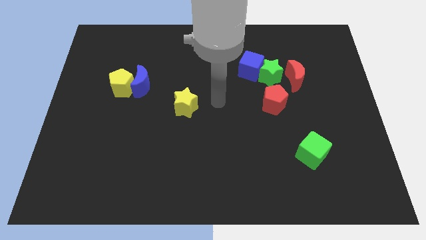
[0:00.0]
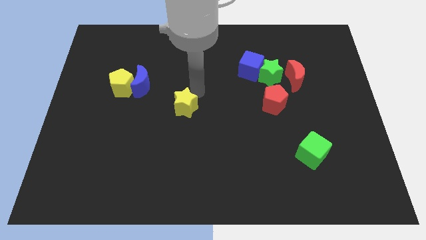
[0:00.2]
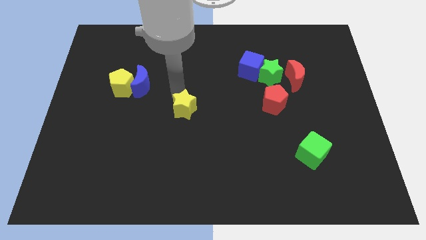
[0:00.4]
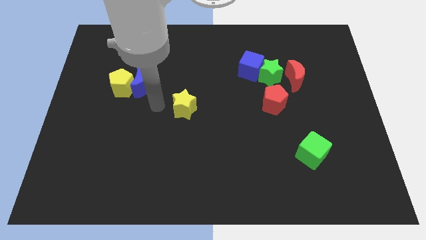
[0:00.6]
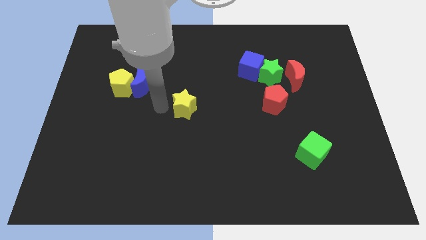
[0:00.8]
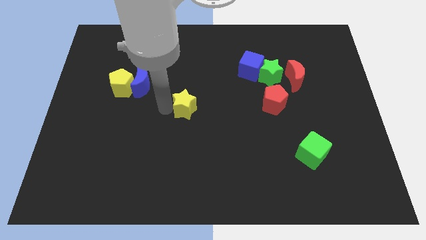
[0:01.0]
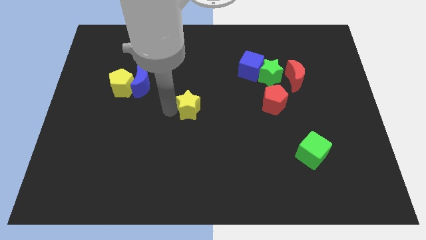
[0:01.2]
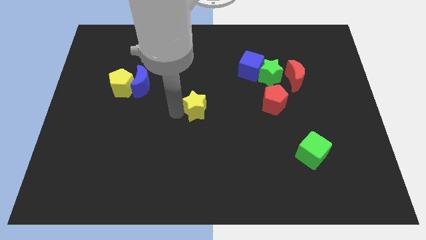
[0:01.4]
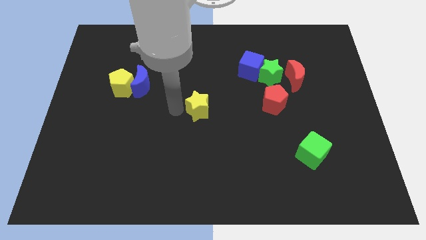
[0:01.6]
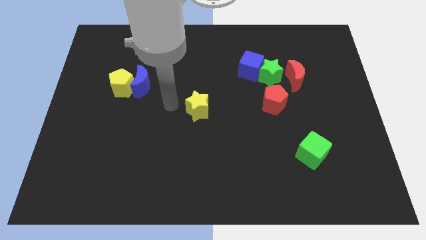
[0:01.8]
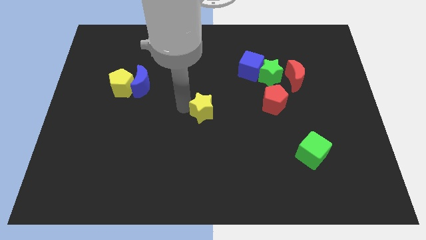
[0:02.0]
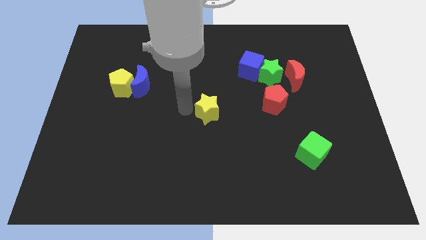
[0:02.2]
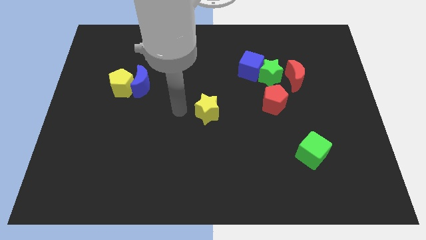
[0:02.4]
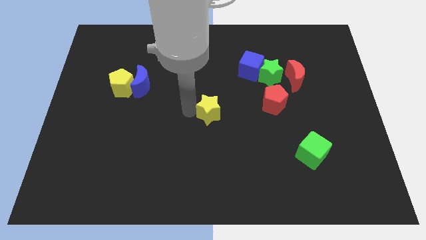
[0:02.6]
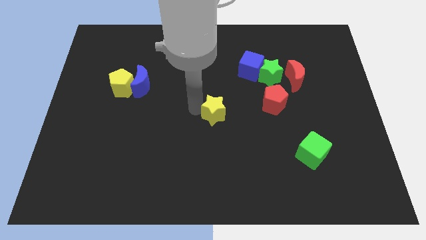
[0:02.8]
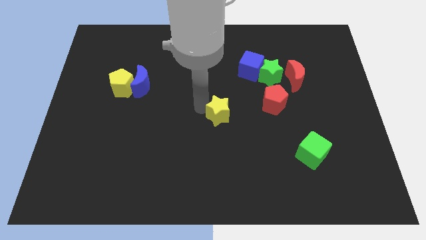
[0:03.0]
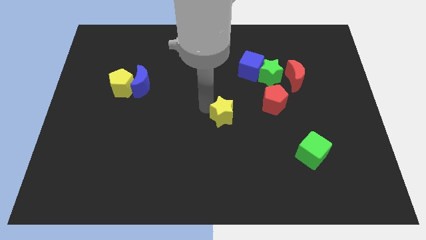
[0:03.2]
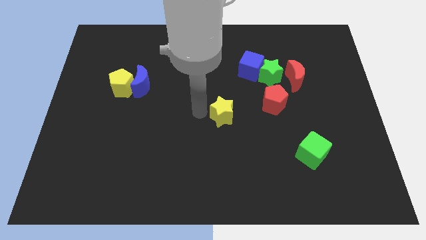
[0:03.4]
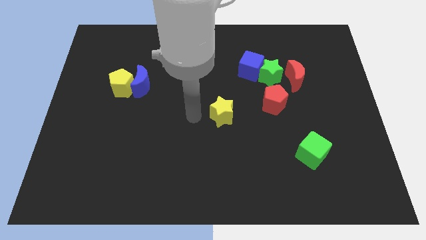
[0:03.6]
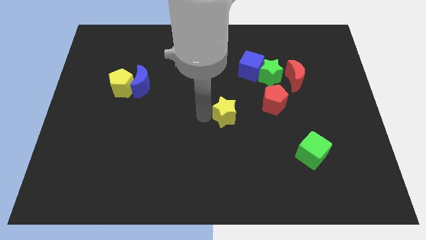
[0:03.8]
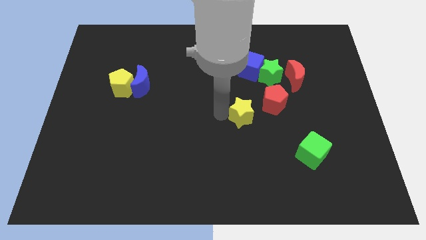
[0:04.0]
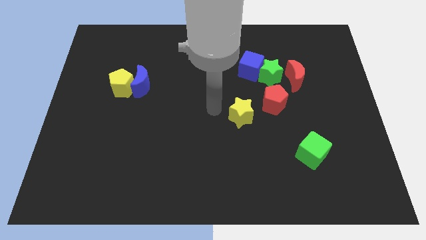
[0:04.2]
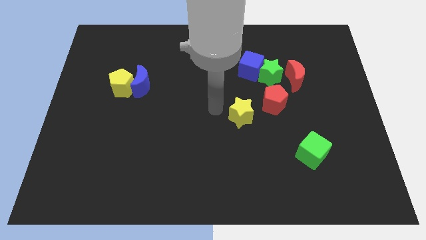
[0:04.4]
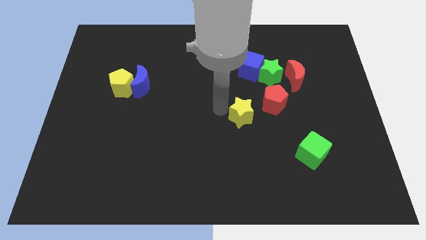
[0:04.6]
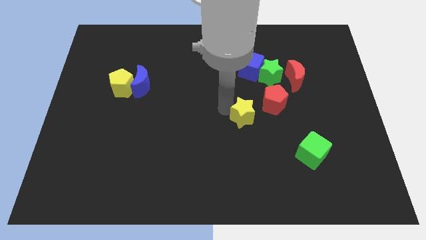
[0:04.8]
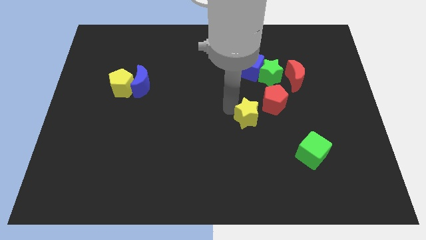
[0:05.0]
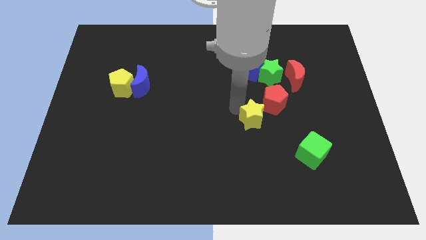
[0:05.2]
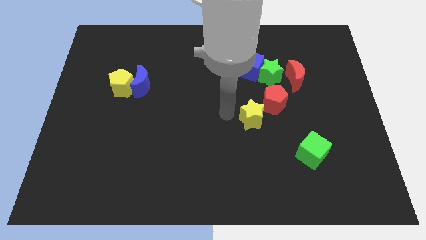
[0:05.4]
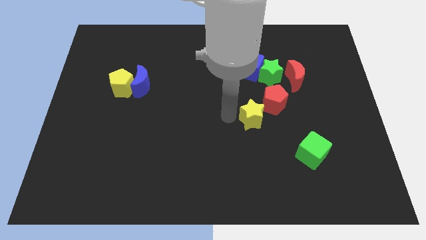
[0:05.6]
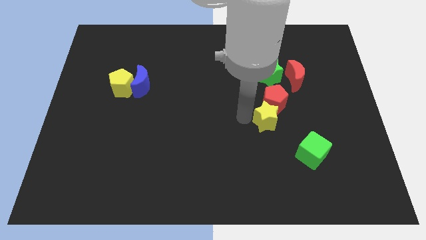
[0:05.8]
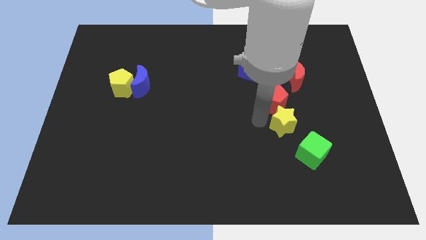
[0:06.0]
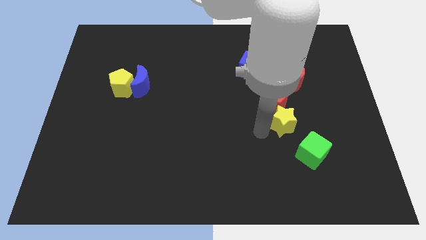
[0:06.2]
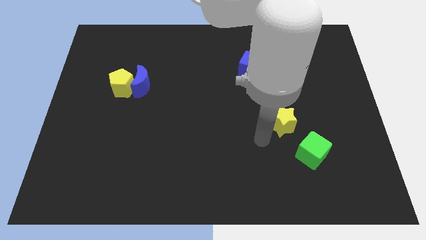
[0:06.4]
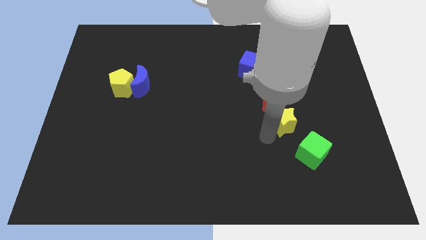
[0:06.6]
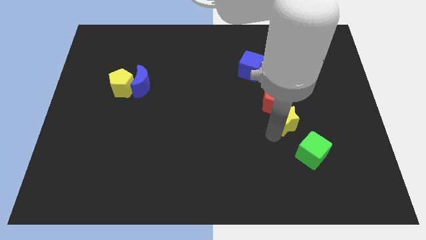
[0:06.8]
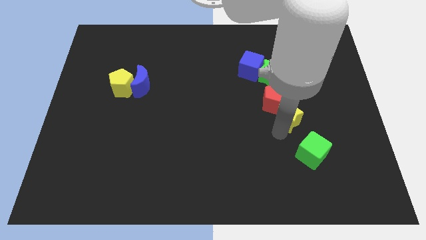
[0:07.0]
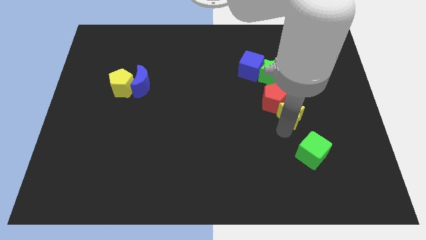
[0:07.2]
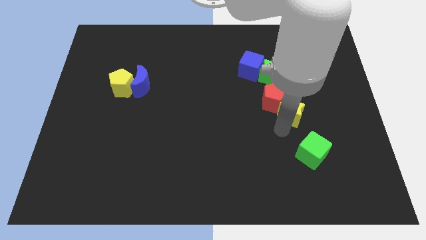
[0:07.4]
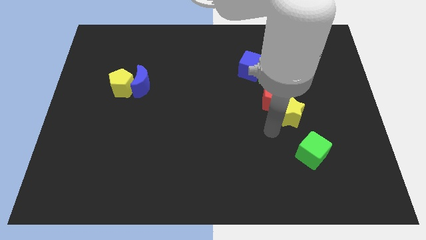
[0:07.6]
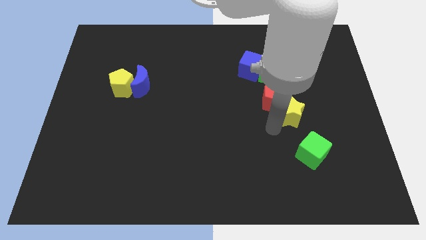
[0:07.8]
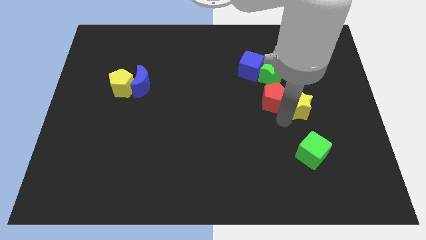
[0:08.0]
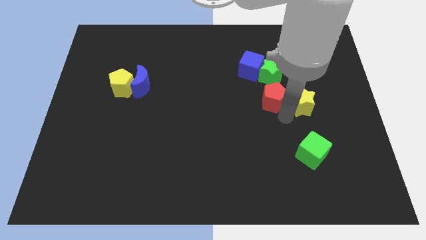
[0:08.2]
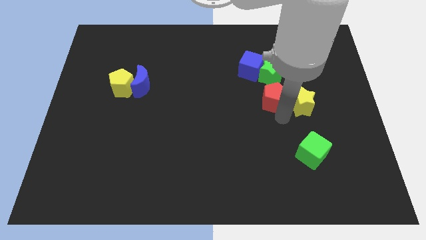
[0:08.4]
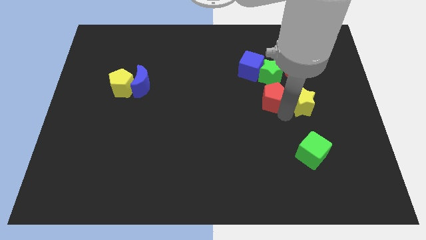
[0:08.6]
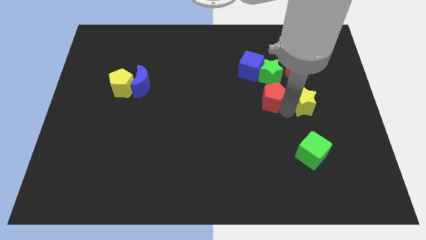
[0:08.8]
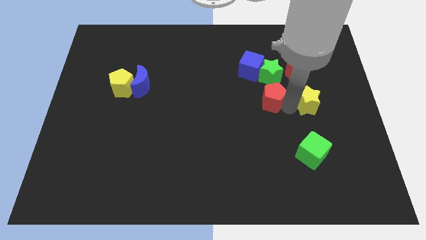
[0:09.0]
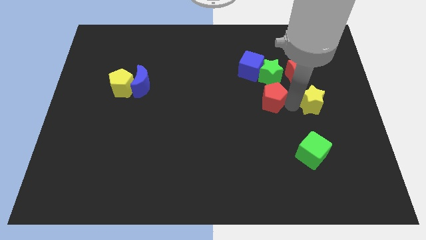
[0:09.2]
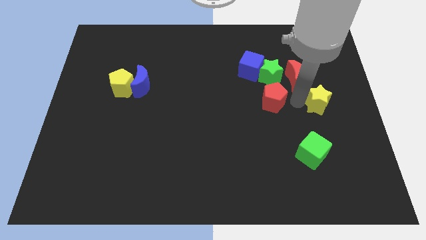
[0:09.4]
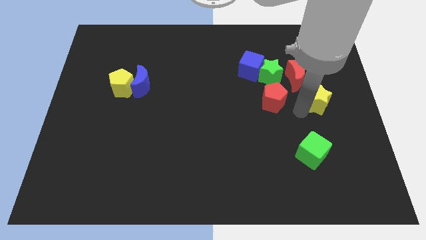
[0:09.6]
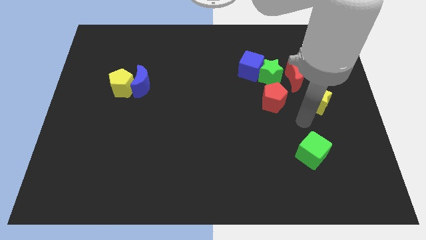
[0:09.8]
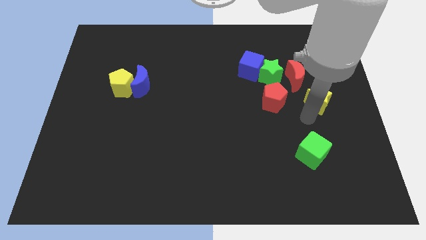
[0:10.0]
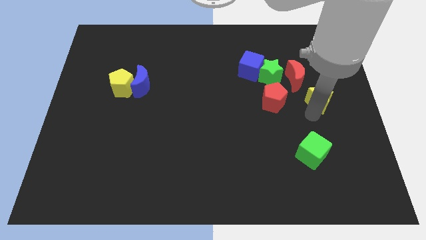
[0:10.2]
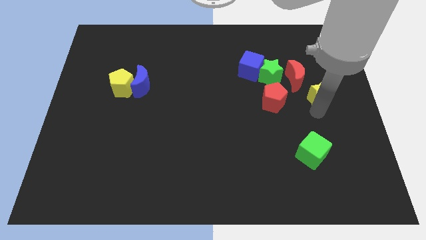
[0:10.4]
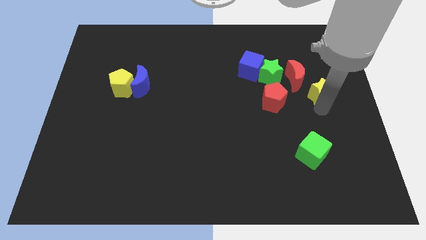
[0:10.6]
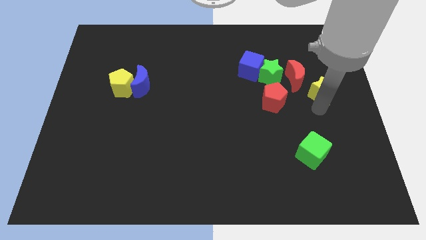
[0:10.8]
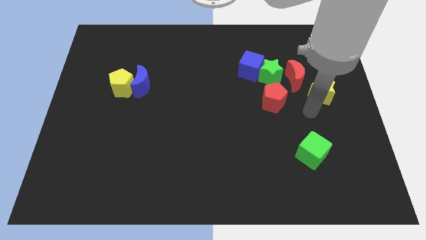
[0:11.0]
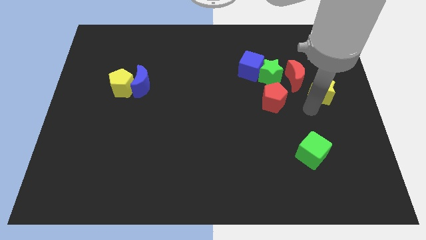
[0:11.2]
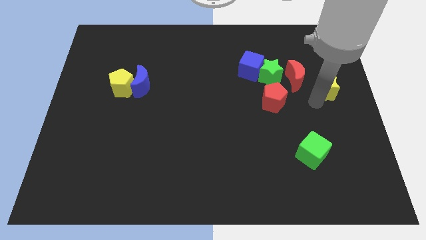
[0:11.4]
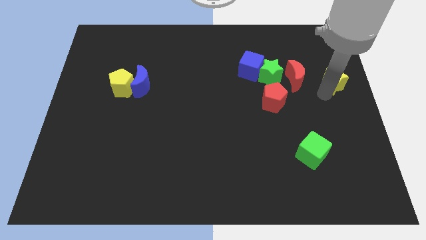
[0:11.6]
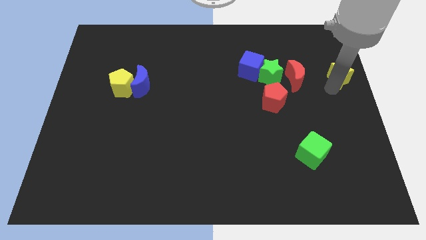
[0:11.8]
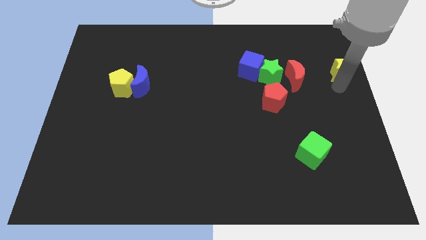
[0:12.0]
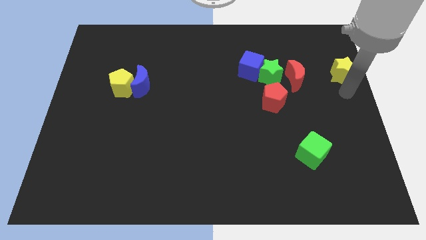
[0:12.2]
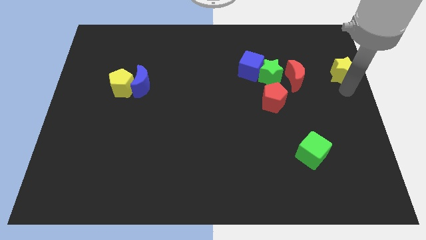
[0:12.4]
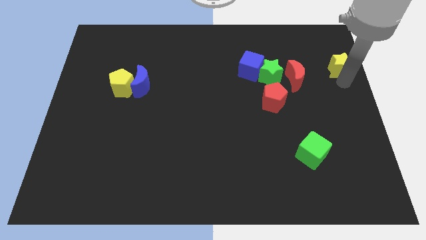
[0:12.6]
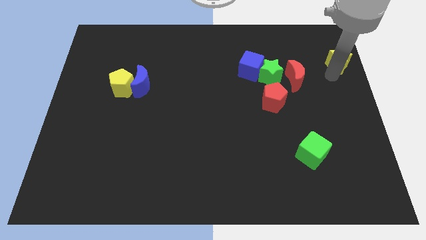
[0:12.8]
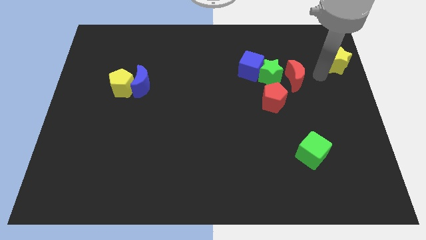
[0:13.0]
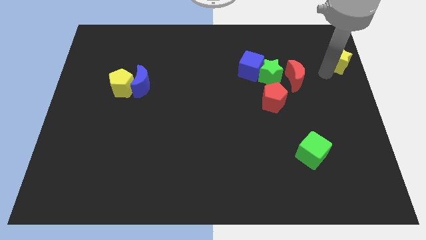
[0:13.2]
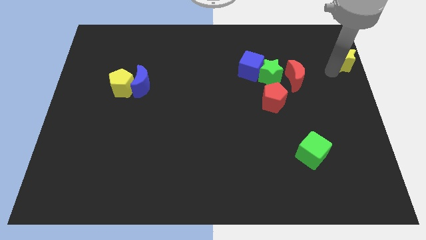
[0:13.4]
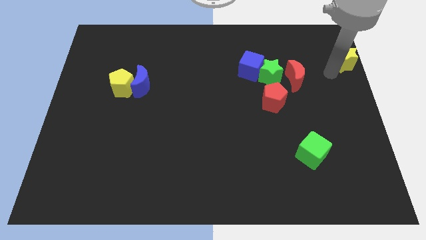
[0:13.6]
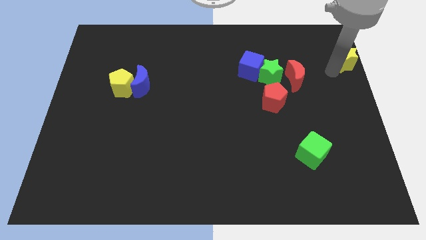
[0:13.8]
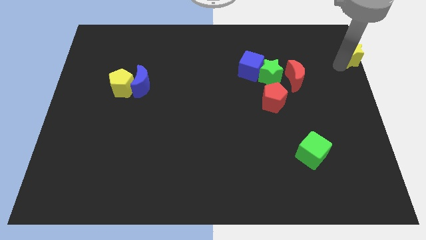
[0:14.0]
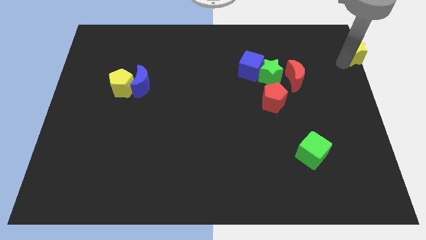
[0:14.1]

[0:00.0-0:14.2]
put the yellow star to the top right corner
